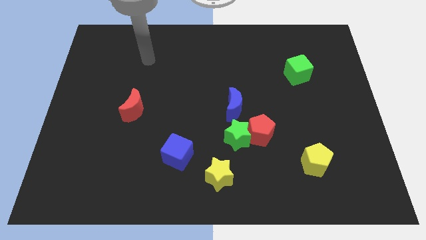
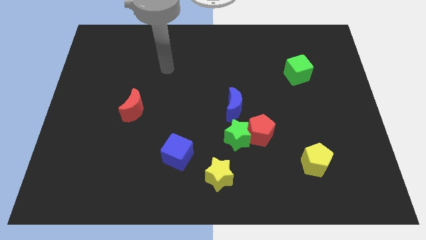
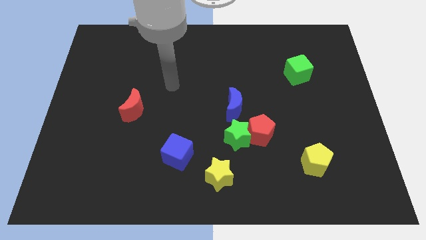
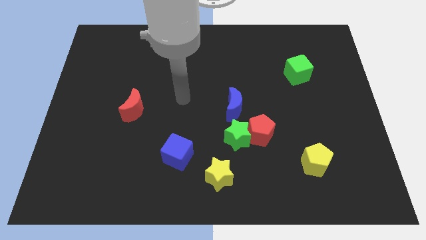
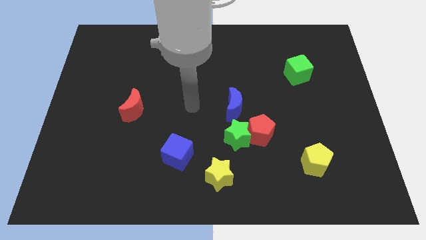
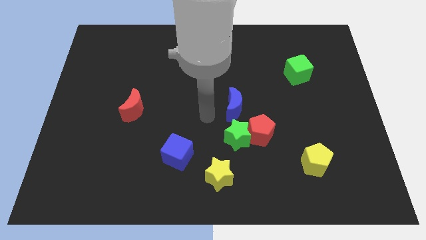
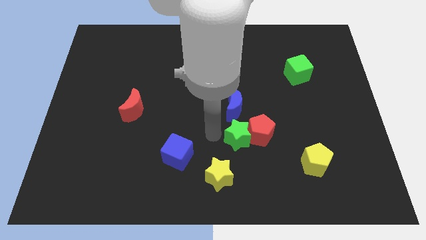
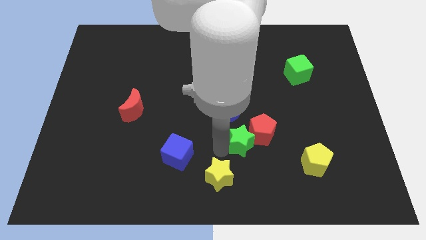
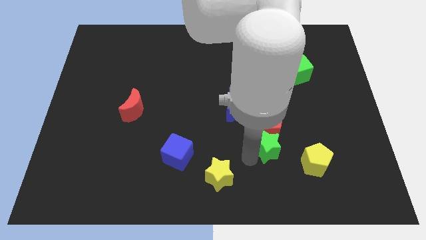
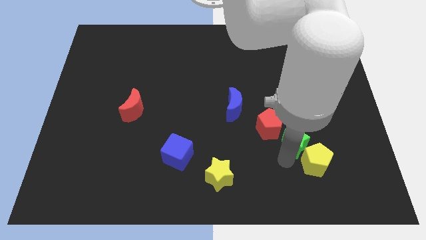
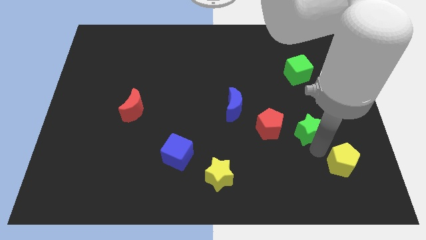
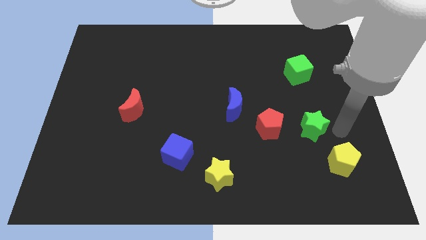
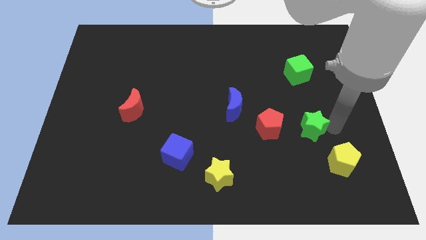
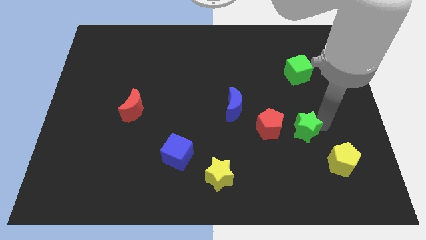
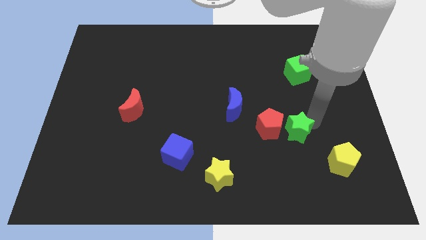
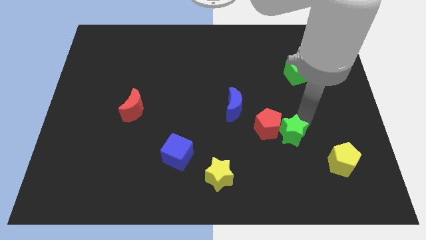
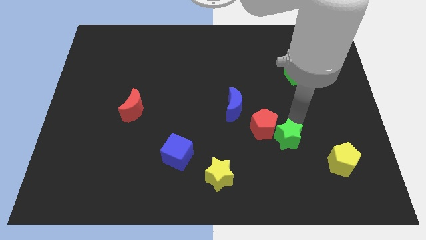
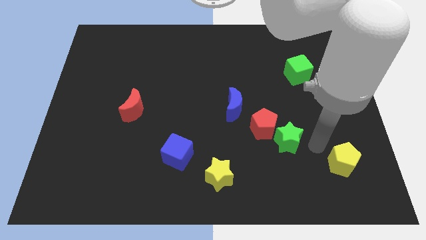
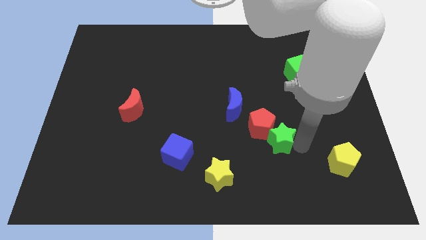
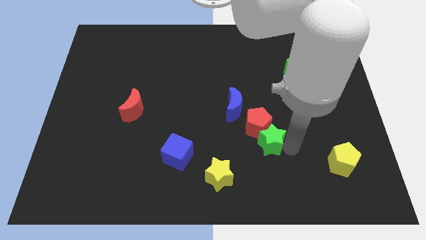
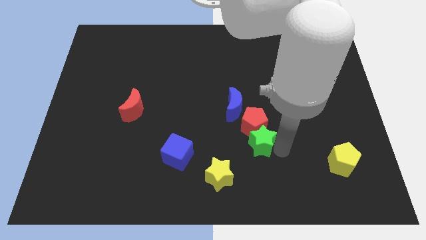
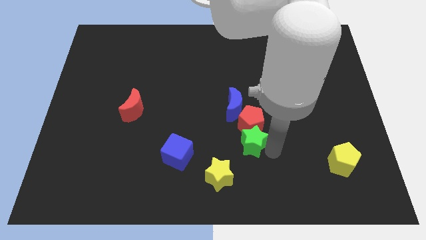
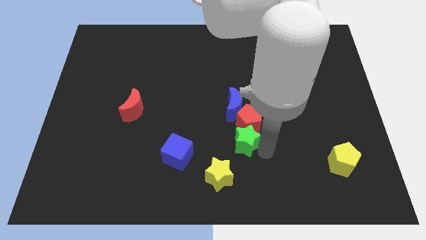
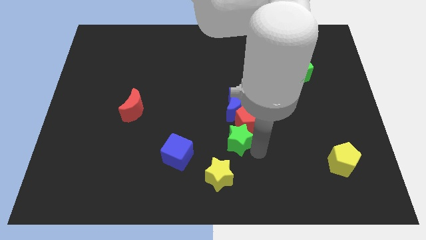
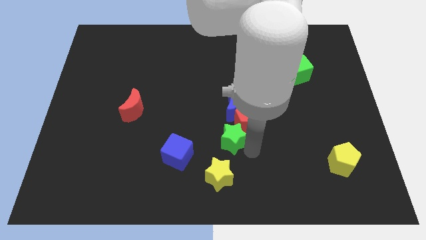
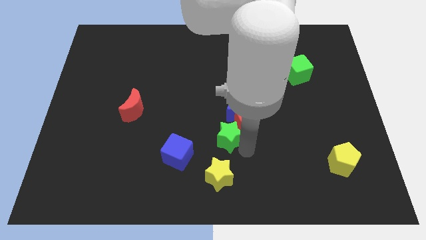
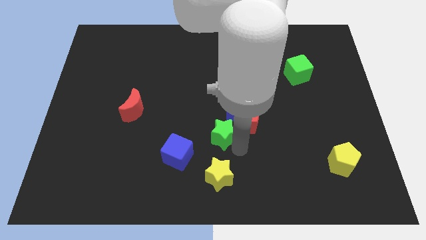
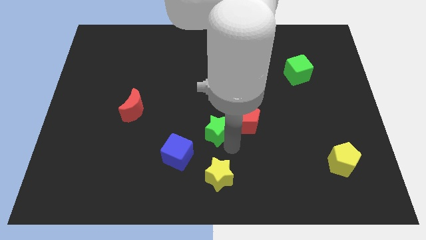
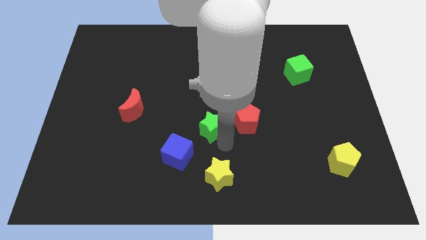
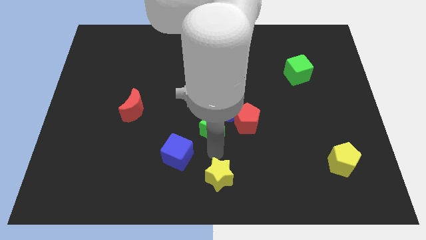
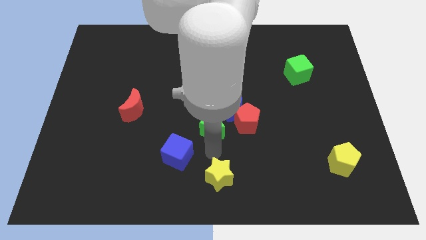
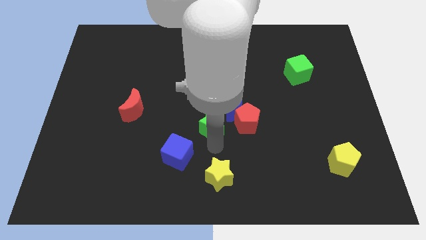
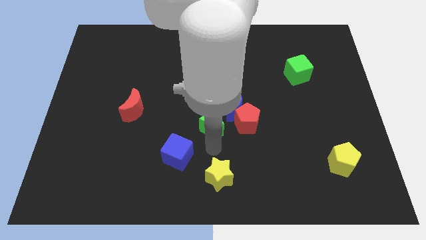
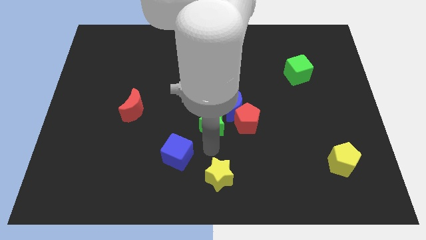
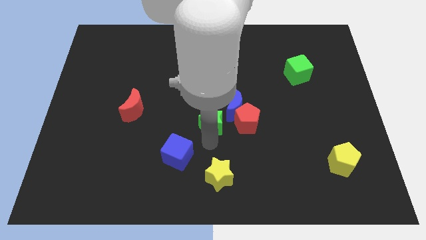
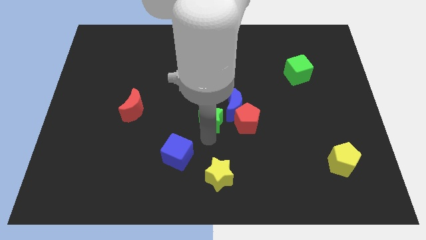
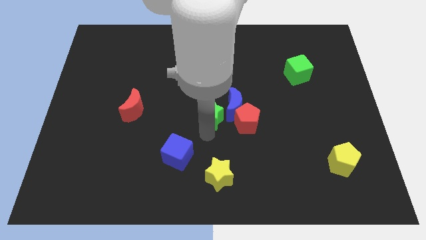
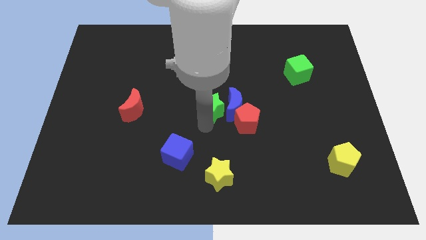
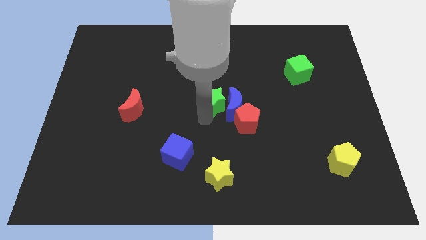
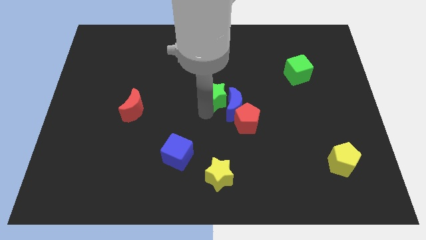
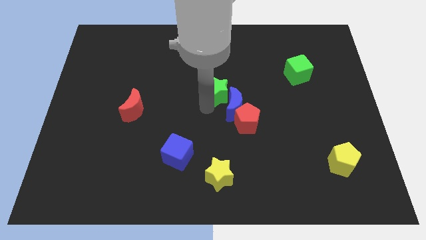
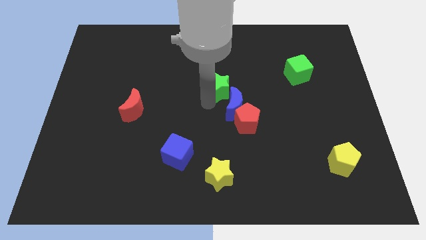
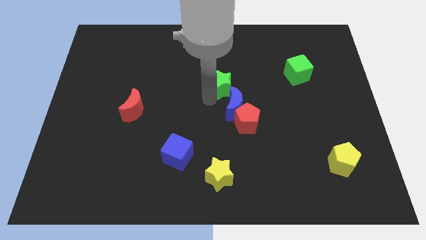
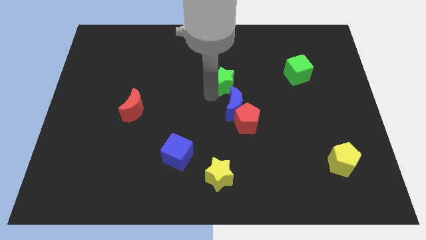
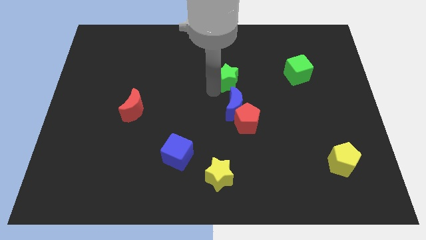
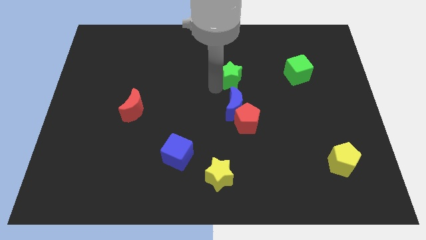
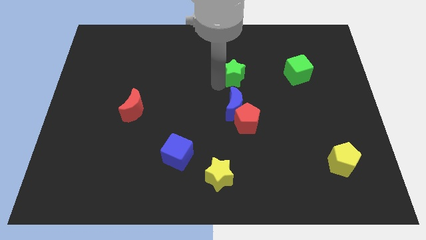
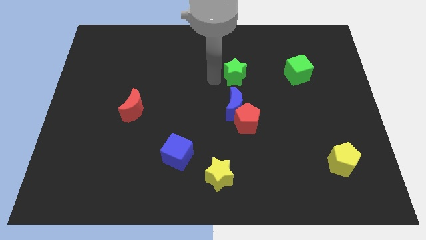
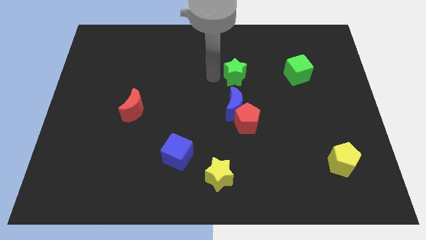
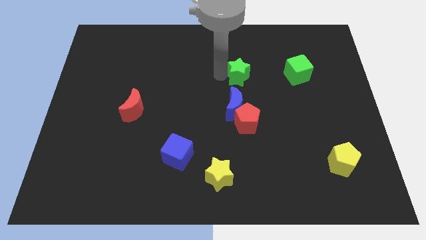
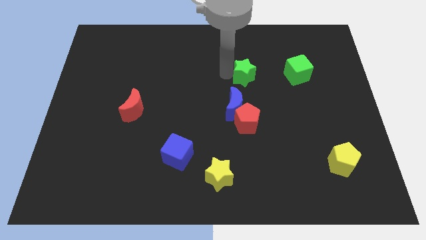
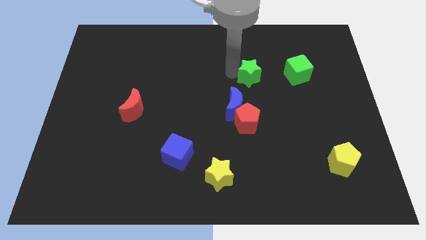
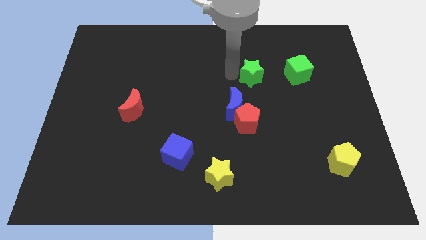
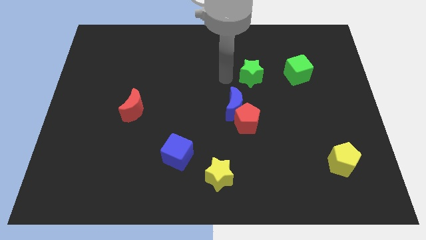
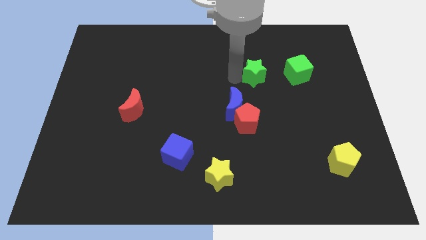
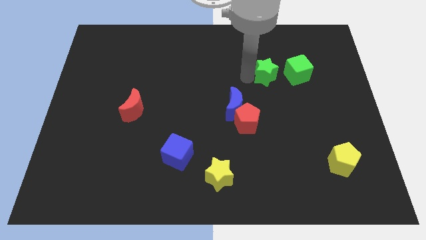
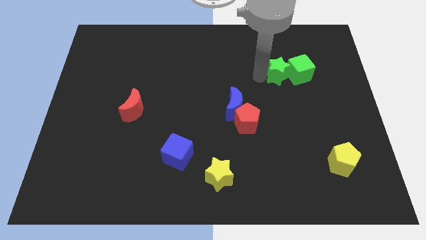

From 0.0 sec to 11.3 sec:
move the green star to the green cube

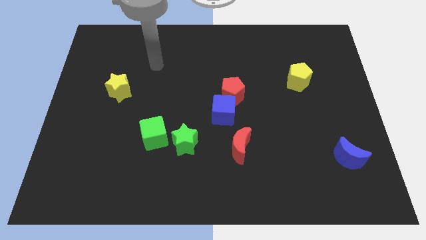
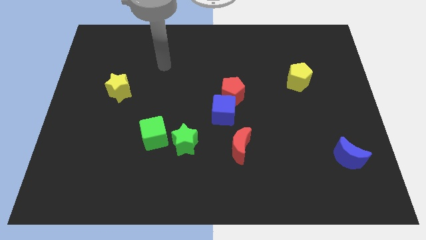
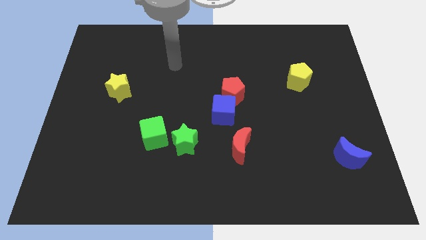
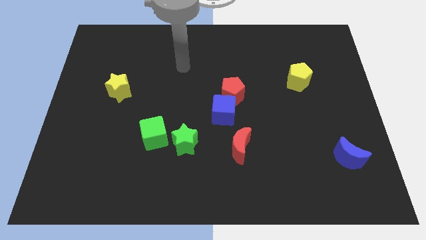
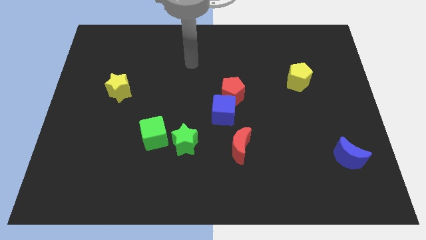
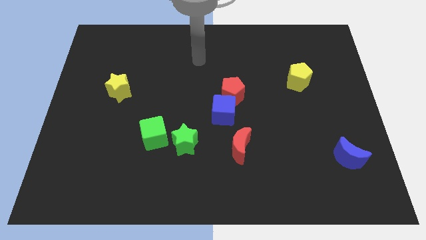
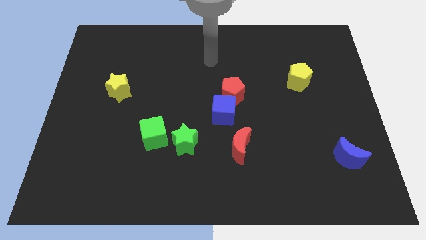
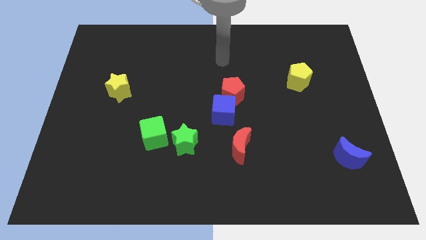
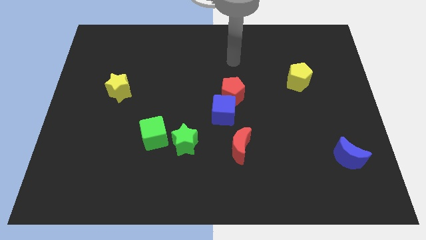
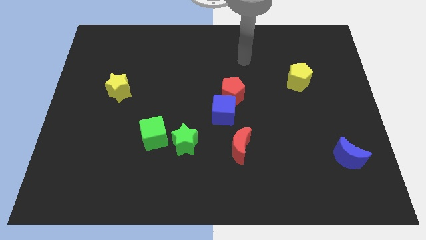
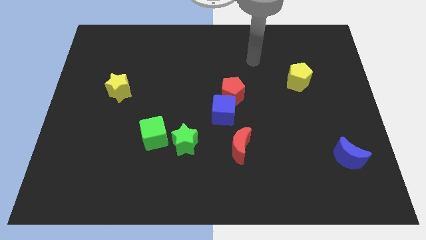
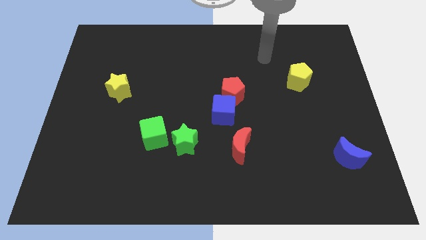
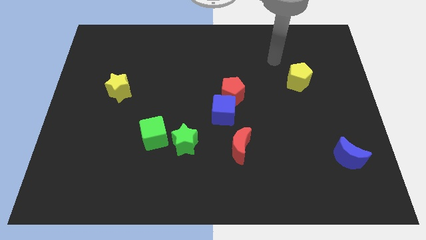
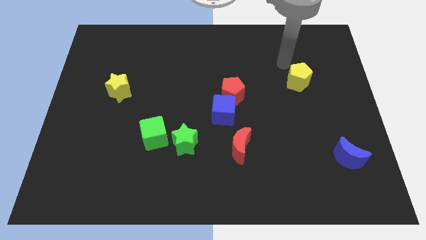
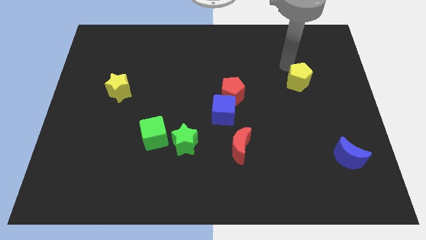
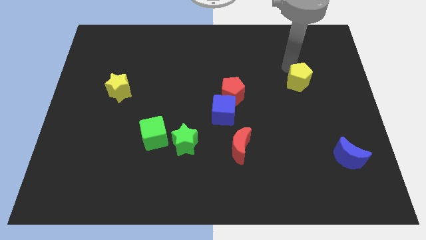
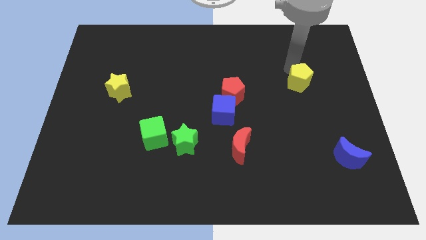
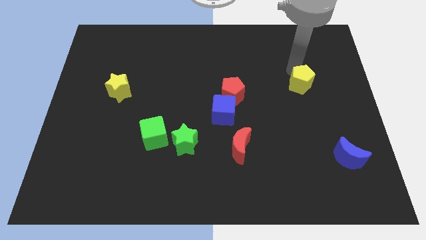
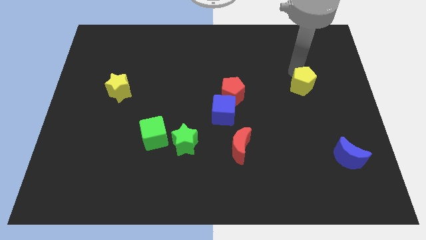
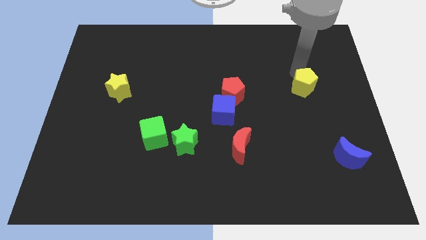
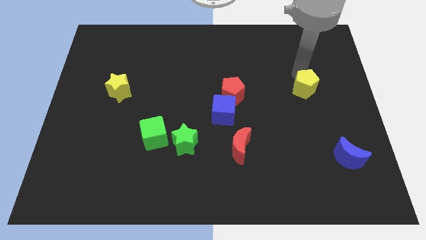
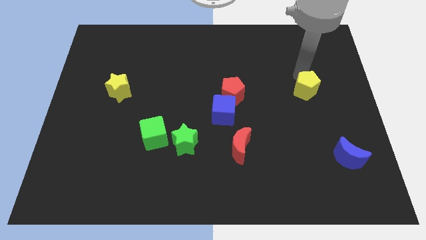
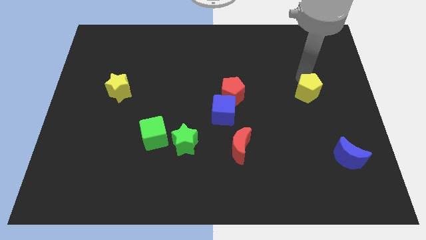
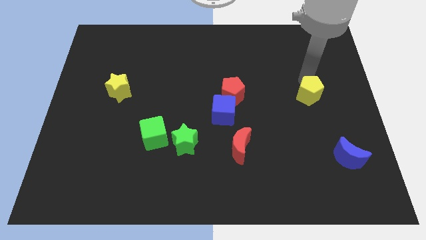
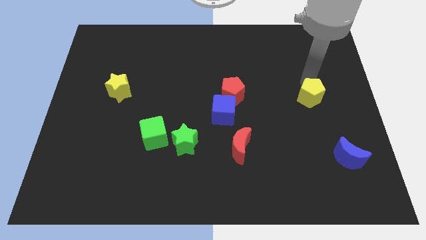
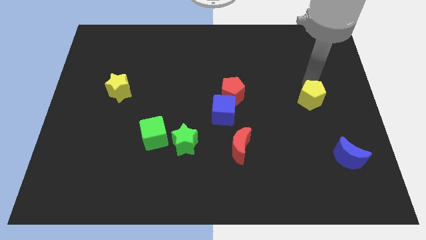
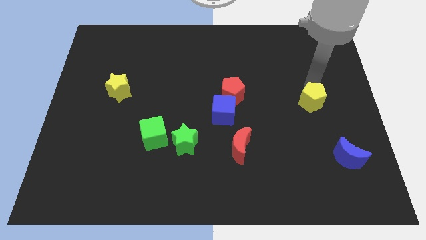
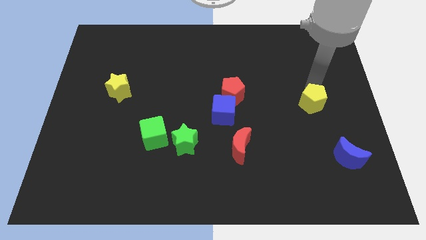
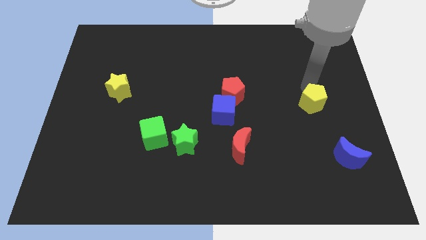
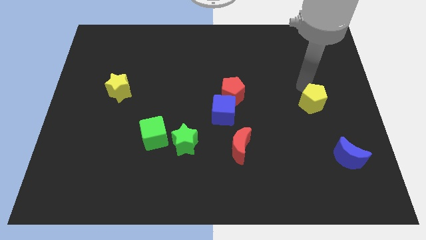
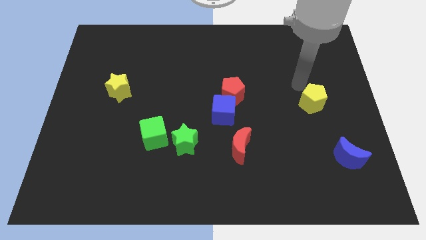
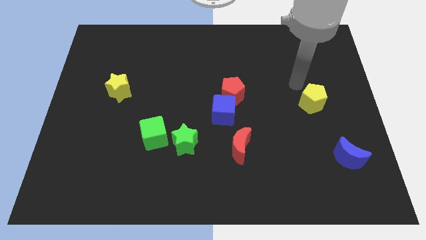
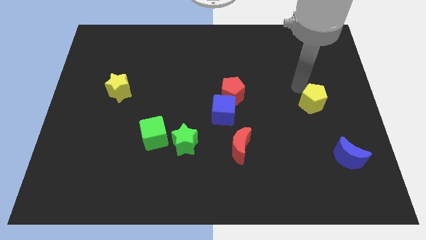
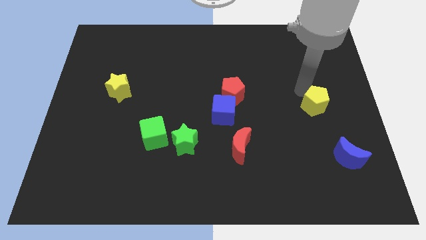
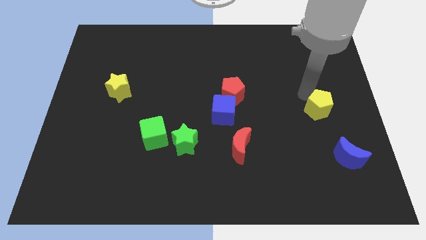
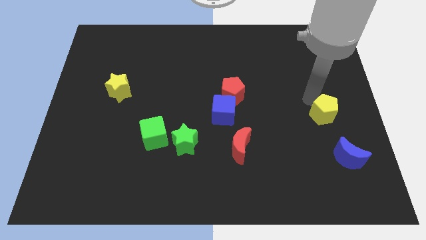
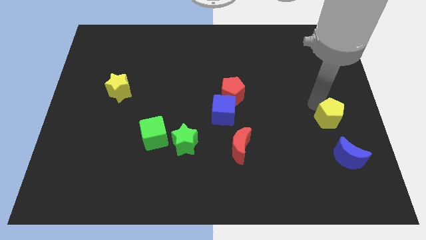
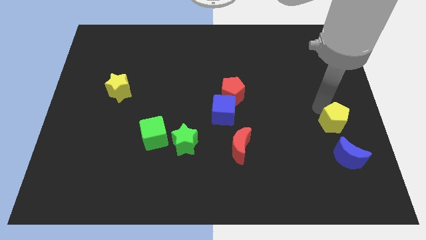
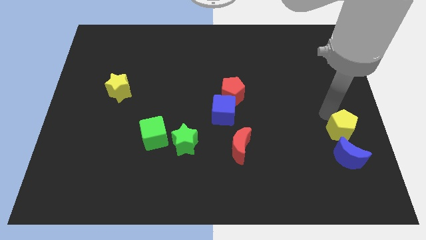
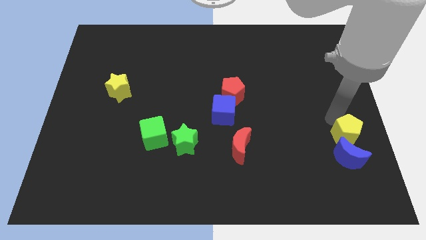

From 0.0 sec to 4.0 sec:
move the yellow pentagon towards the blue moon
